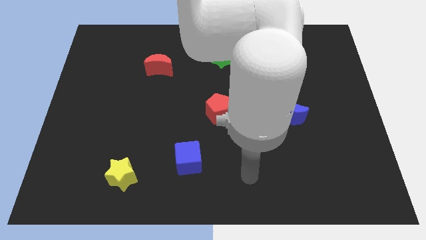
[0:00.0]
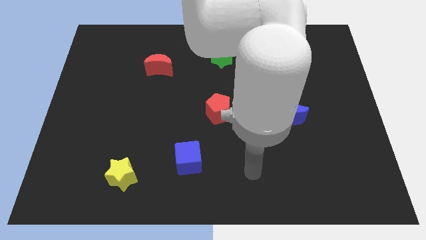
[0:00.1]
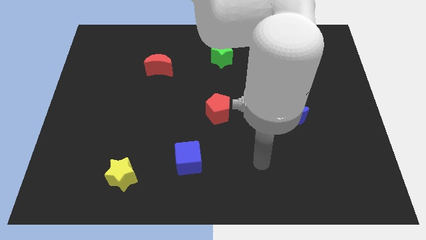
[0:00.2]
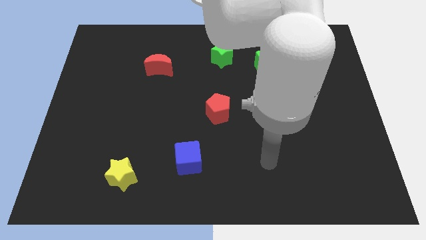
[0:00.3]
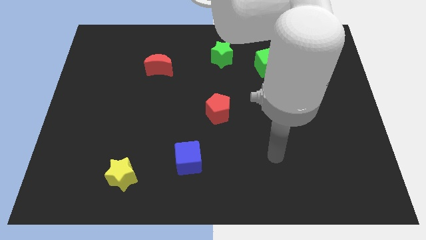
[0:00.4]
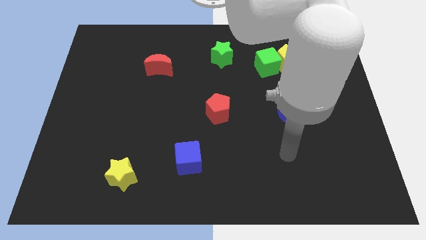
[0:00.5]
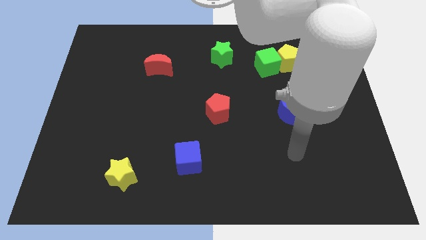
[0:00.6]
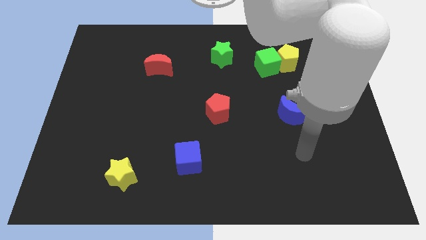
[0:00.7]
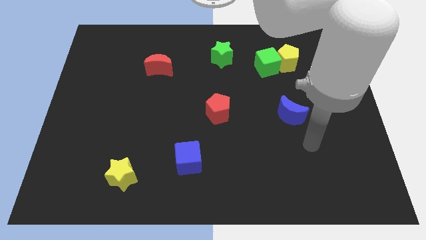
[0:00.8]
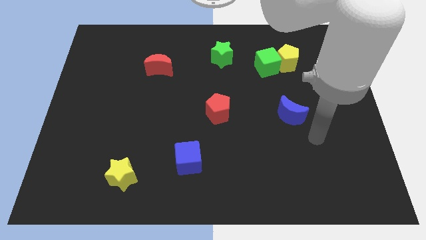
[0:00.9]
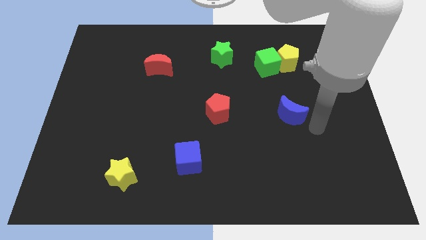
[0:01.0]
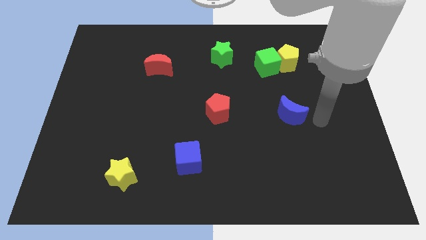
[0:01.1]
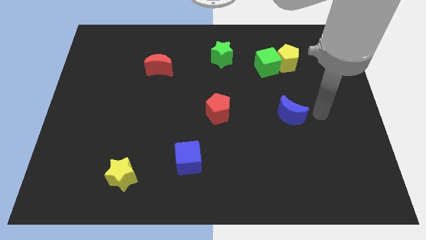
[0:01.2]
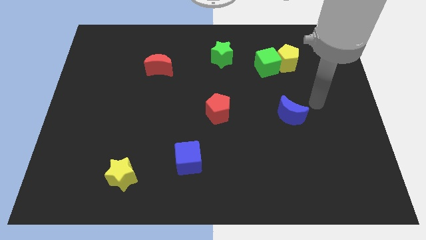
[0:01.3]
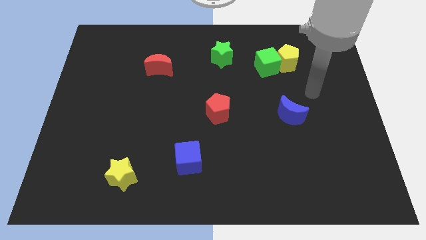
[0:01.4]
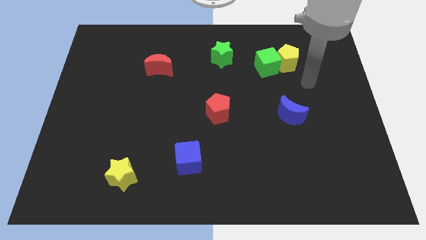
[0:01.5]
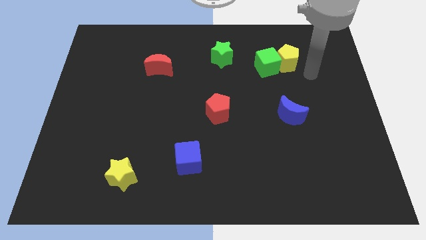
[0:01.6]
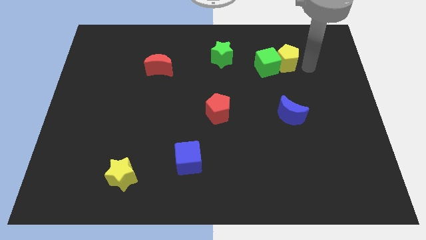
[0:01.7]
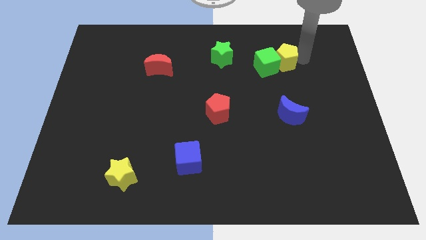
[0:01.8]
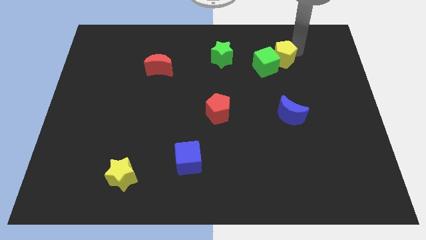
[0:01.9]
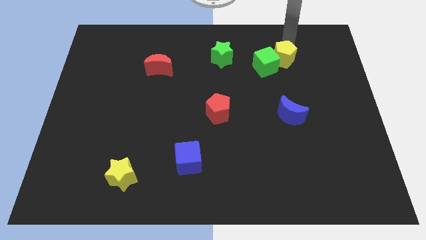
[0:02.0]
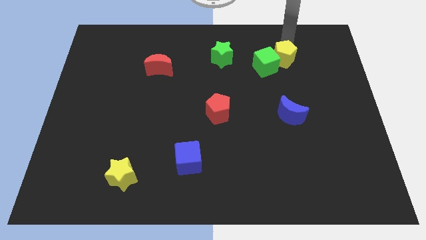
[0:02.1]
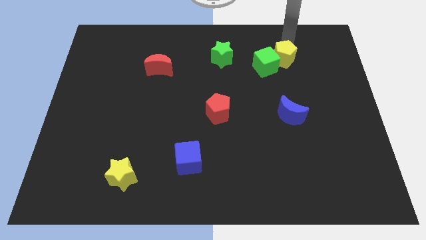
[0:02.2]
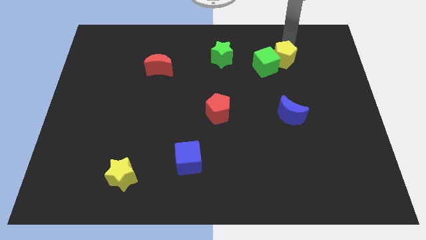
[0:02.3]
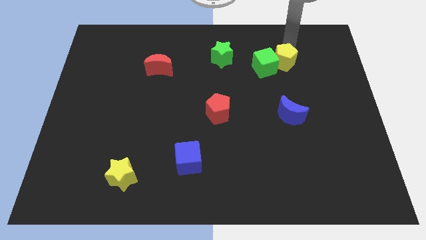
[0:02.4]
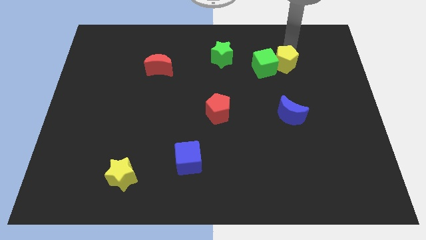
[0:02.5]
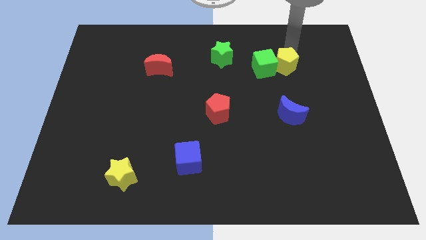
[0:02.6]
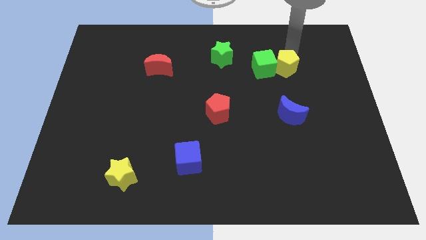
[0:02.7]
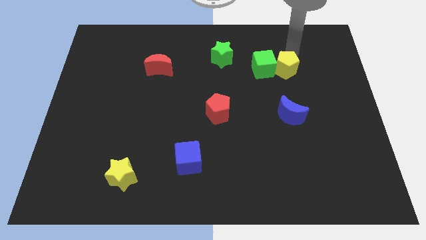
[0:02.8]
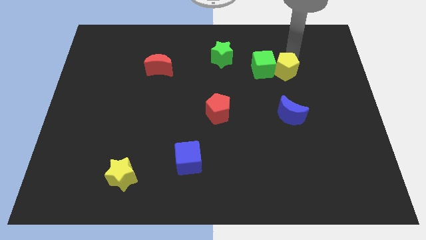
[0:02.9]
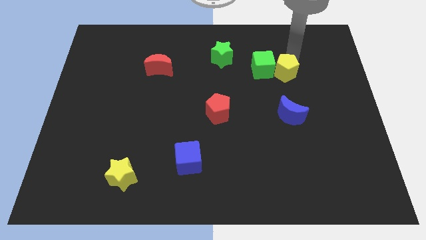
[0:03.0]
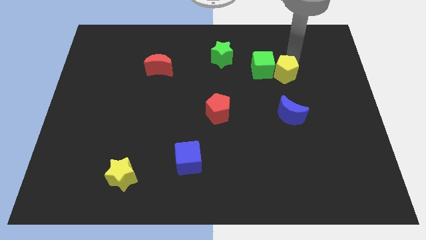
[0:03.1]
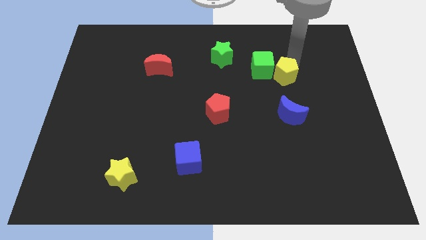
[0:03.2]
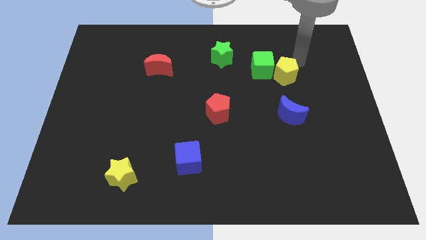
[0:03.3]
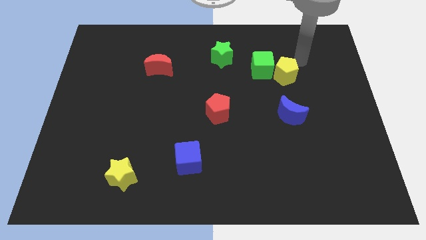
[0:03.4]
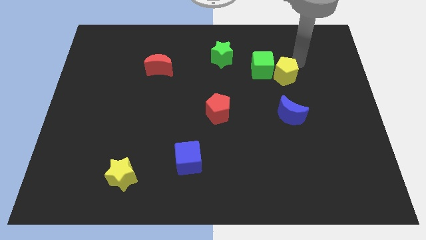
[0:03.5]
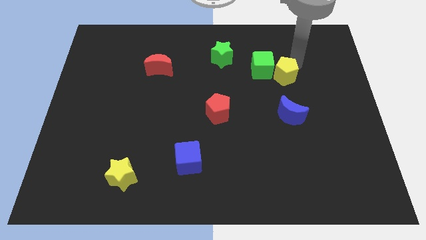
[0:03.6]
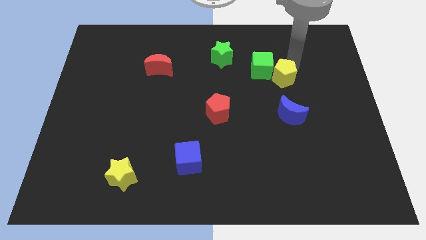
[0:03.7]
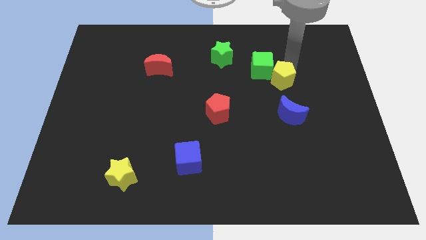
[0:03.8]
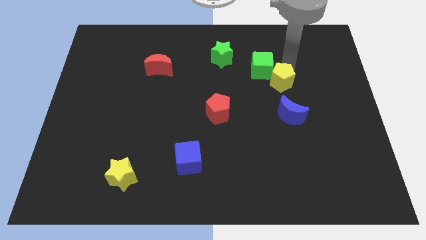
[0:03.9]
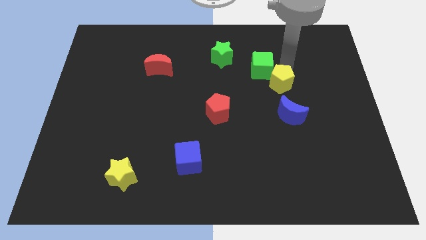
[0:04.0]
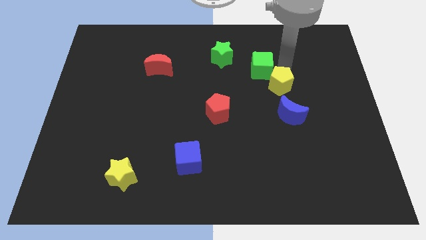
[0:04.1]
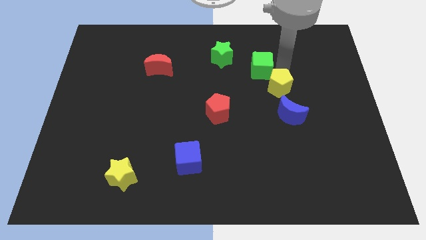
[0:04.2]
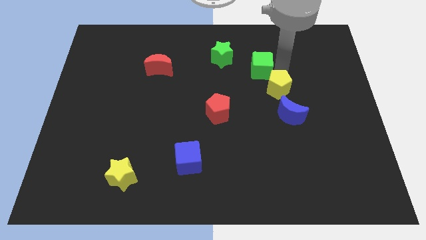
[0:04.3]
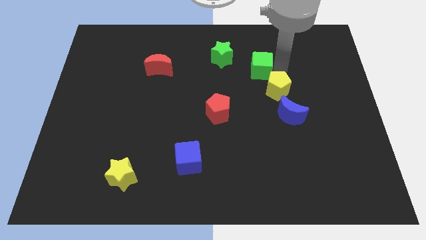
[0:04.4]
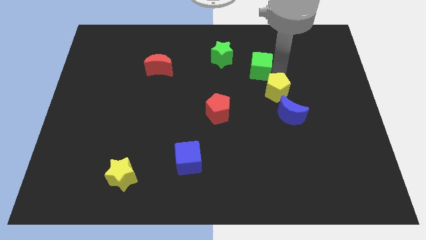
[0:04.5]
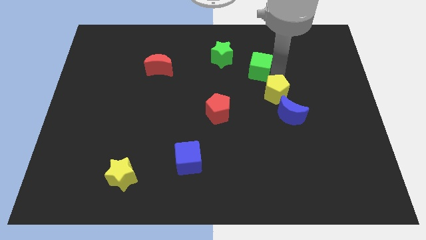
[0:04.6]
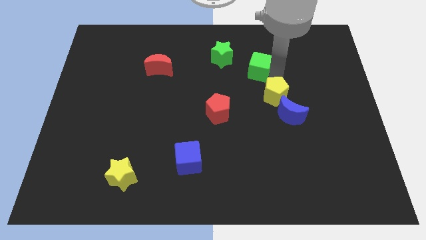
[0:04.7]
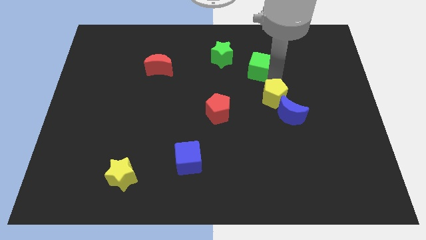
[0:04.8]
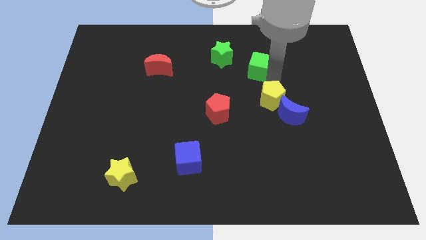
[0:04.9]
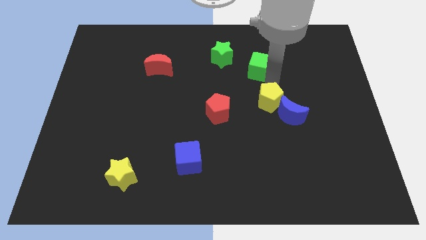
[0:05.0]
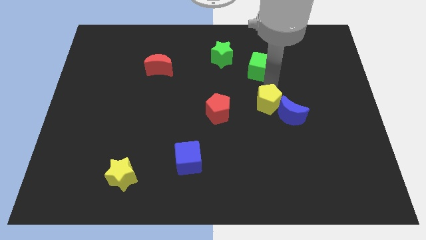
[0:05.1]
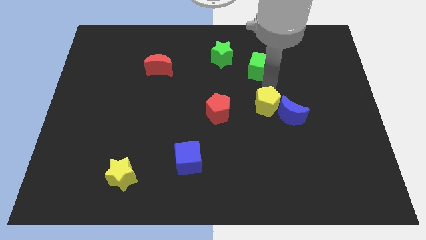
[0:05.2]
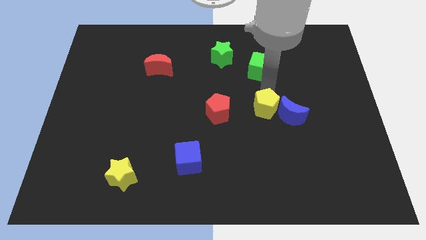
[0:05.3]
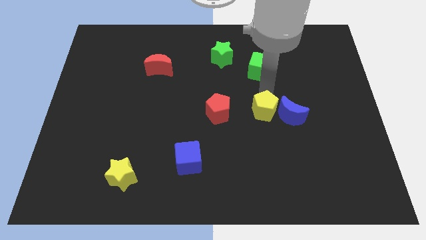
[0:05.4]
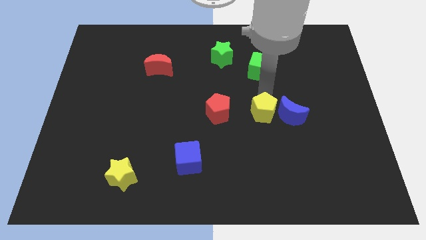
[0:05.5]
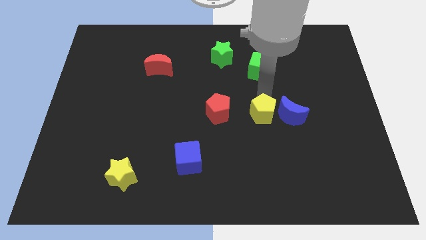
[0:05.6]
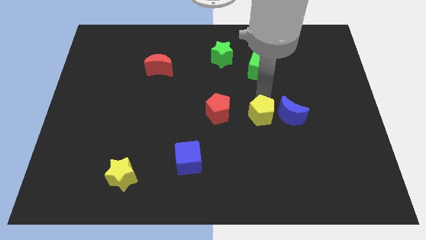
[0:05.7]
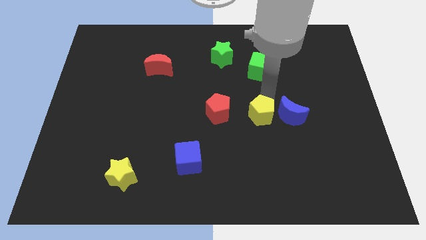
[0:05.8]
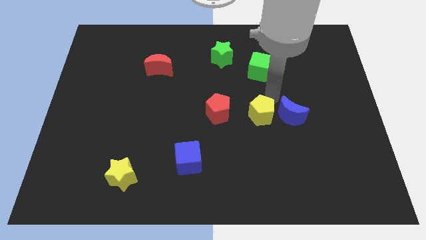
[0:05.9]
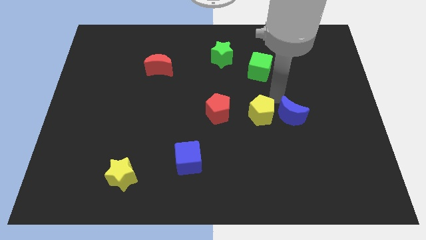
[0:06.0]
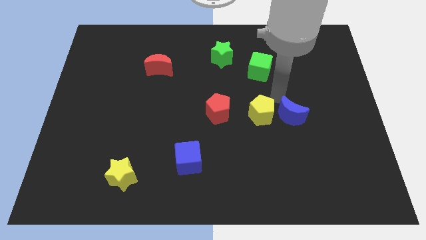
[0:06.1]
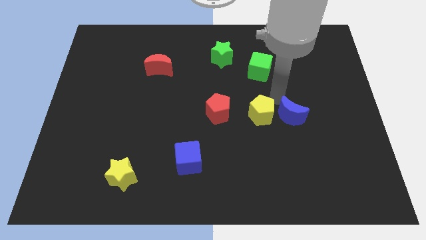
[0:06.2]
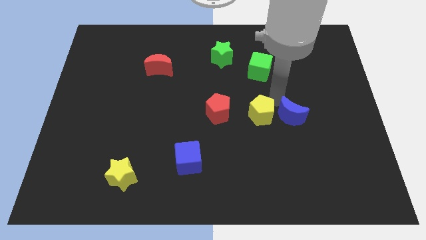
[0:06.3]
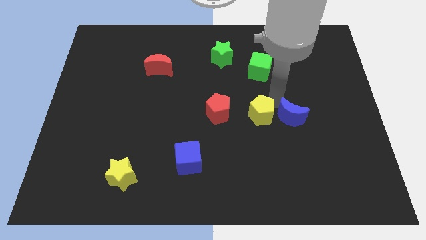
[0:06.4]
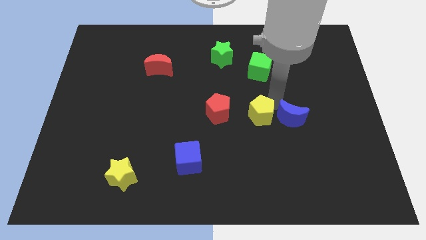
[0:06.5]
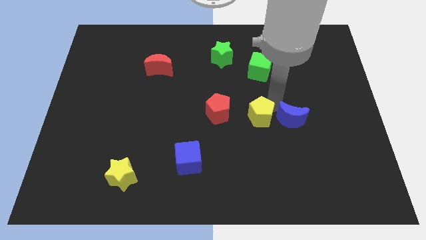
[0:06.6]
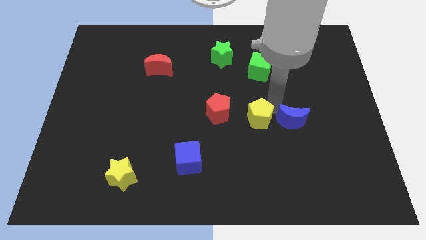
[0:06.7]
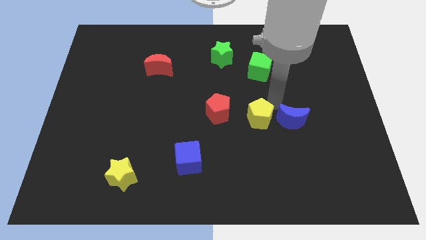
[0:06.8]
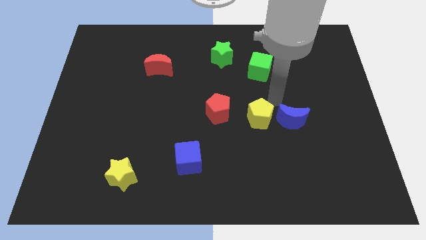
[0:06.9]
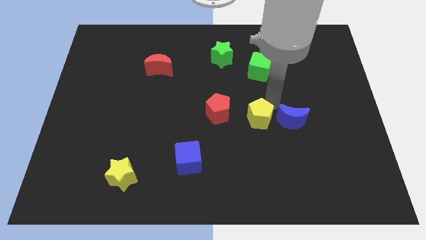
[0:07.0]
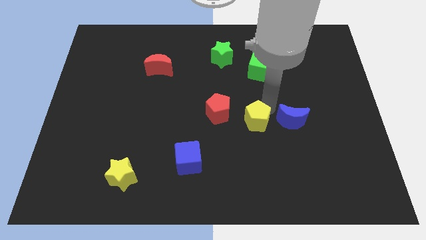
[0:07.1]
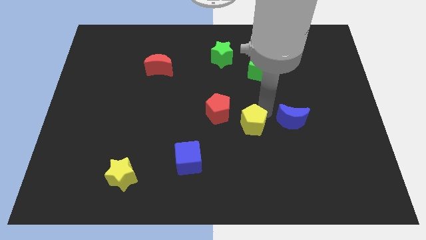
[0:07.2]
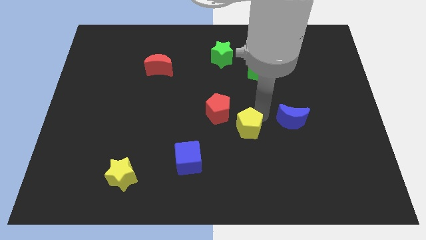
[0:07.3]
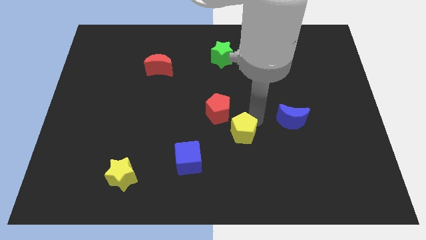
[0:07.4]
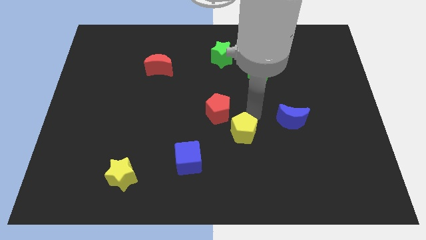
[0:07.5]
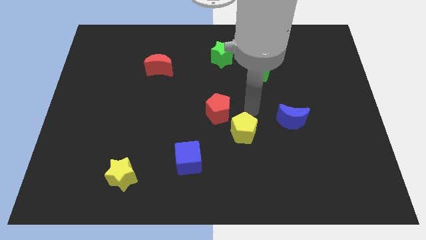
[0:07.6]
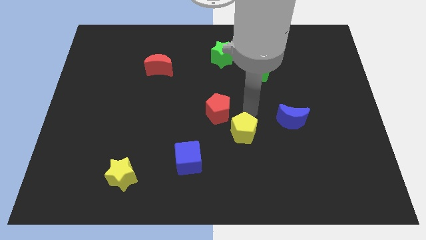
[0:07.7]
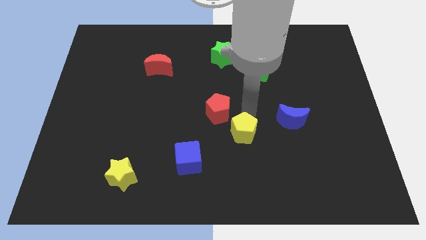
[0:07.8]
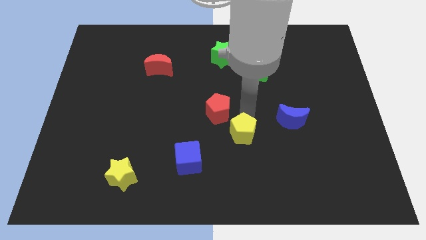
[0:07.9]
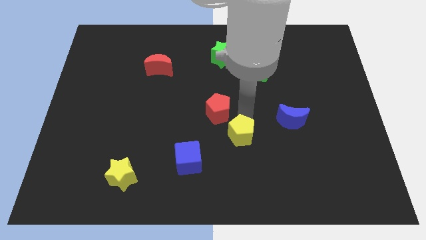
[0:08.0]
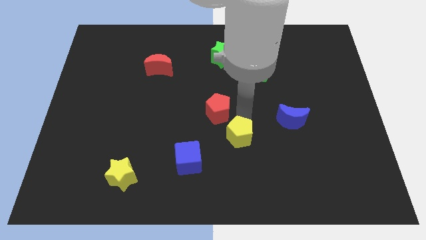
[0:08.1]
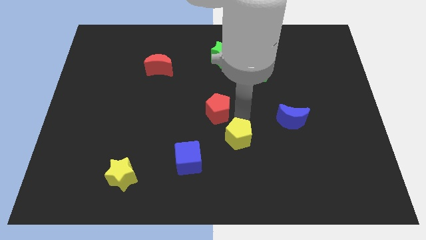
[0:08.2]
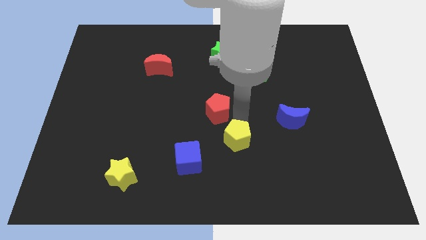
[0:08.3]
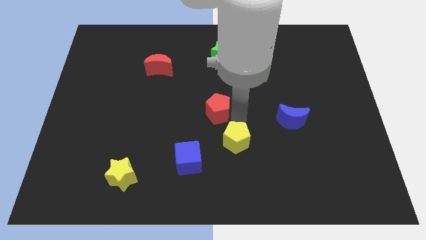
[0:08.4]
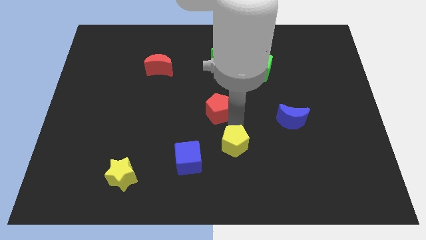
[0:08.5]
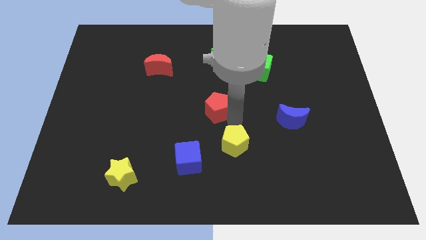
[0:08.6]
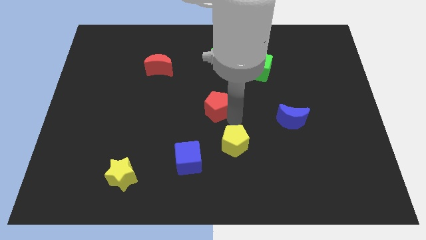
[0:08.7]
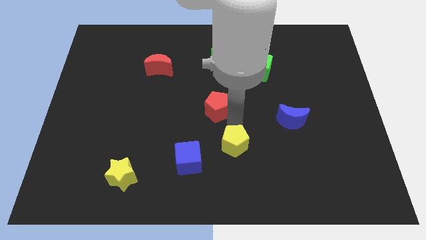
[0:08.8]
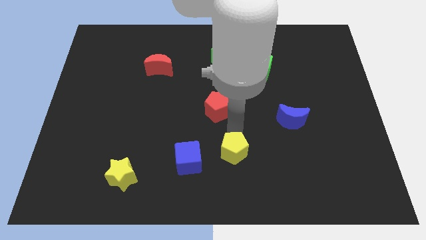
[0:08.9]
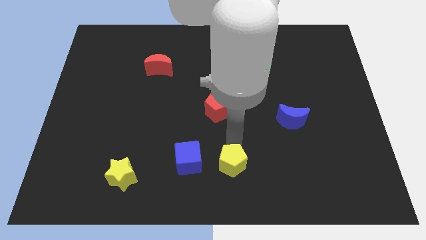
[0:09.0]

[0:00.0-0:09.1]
slide the yellow pentagon to the bottom
